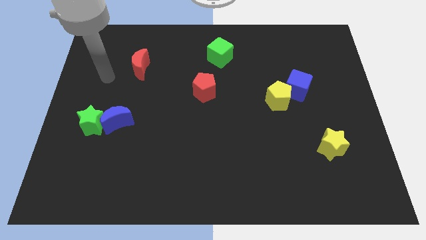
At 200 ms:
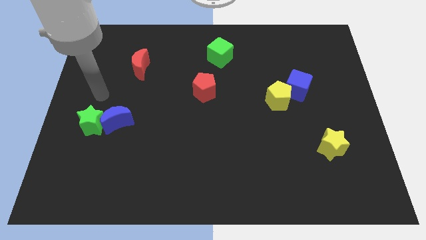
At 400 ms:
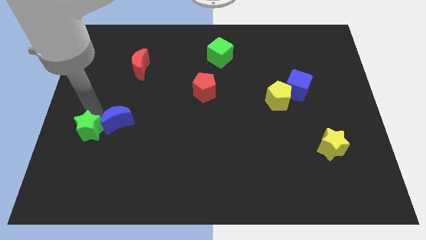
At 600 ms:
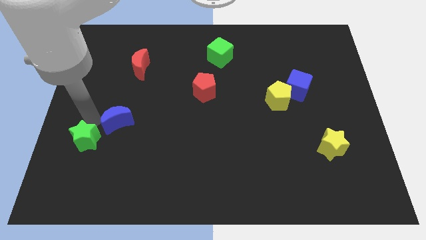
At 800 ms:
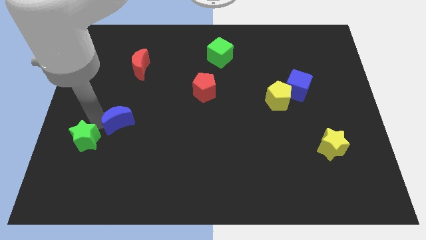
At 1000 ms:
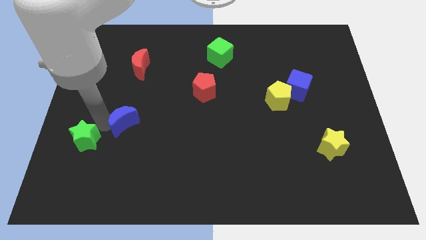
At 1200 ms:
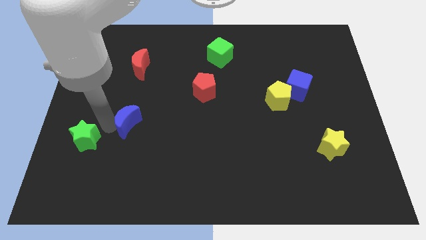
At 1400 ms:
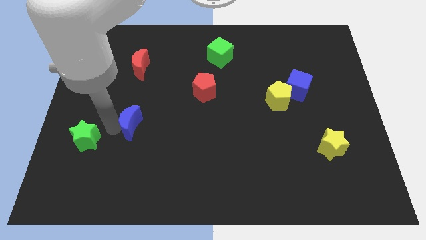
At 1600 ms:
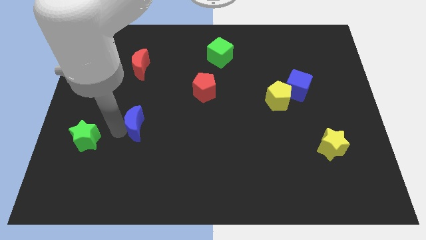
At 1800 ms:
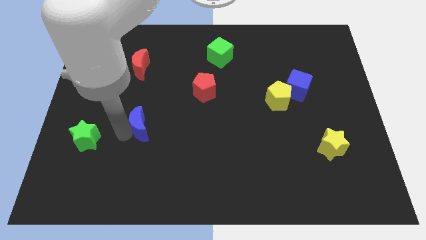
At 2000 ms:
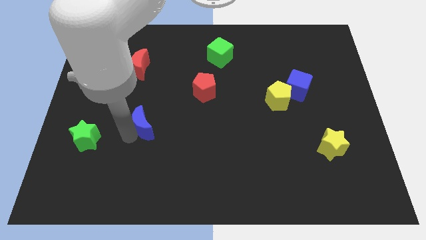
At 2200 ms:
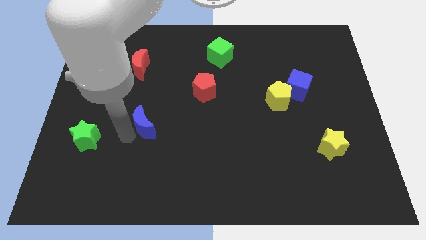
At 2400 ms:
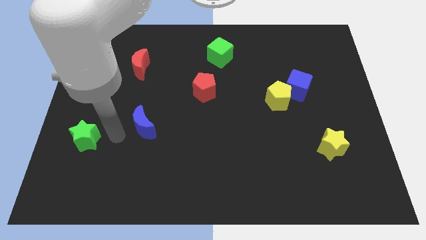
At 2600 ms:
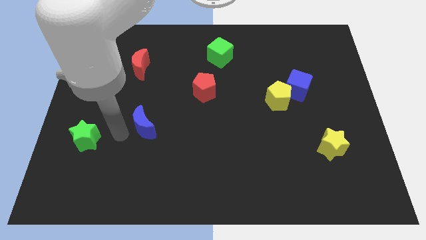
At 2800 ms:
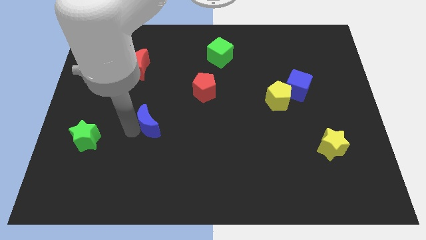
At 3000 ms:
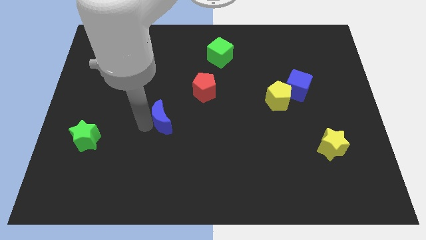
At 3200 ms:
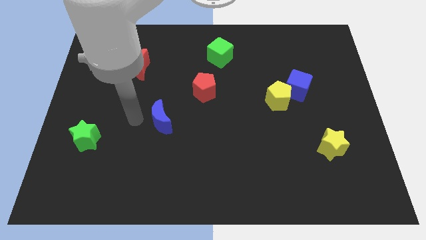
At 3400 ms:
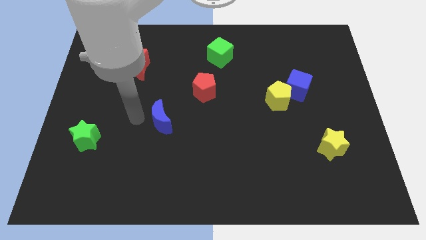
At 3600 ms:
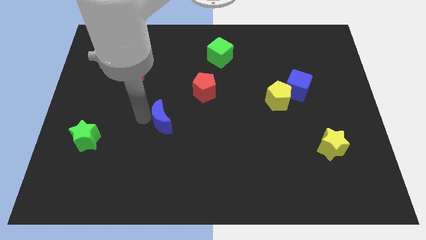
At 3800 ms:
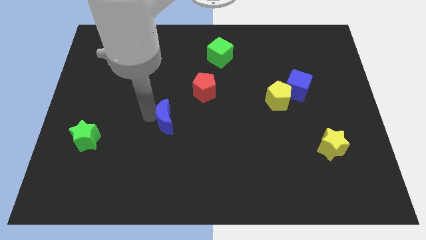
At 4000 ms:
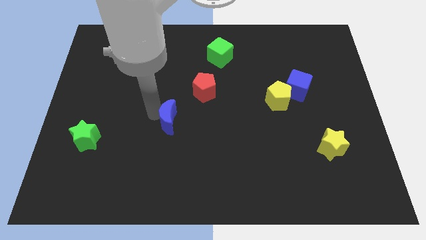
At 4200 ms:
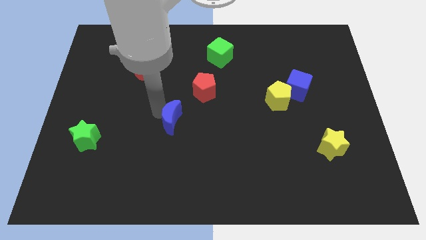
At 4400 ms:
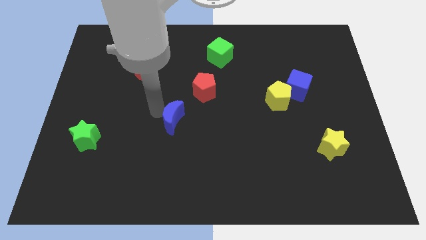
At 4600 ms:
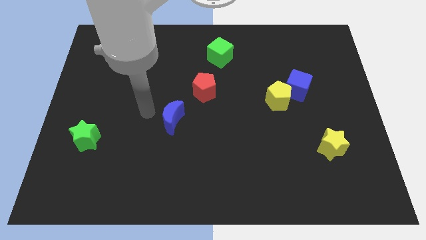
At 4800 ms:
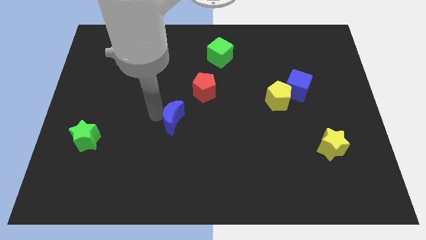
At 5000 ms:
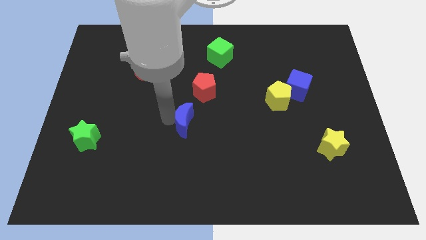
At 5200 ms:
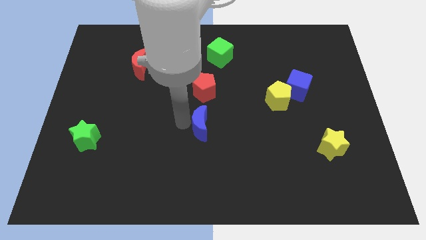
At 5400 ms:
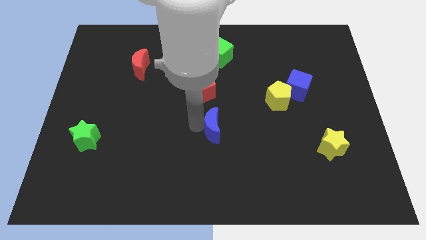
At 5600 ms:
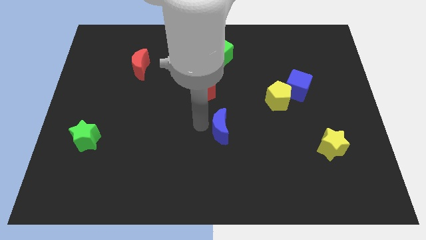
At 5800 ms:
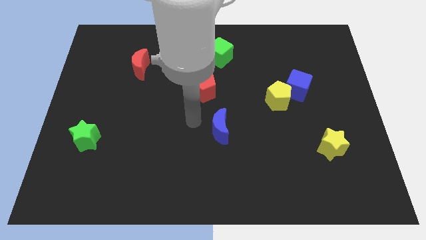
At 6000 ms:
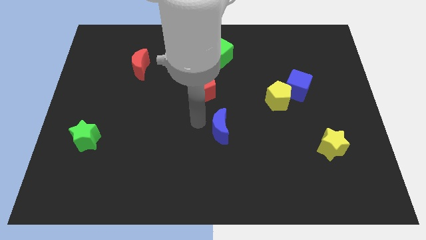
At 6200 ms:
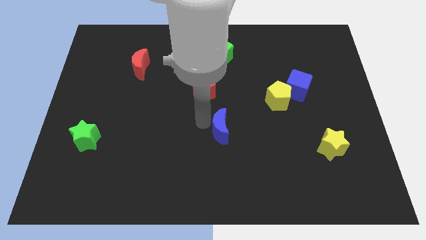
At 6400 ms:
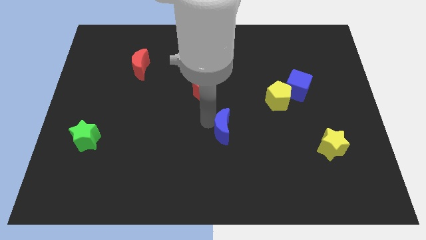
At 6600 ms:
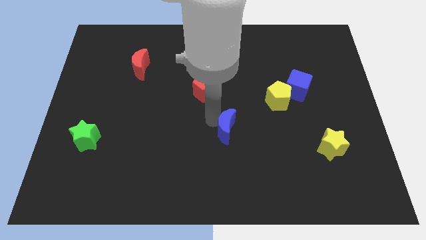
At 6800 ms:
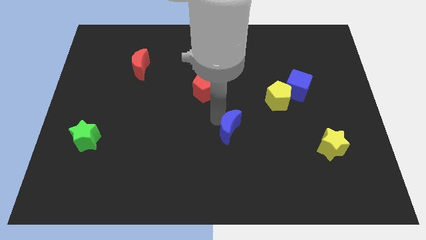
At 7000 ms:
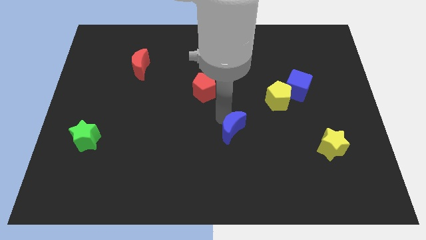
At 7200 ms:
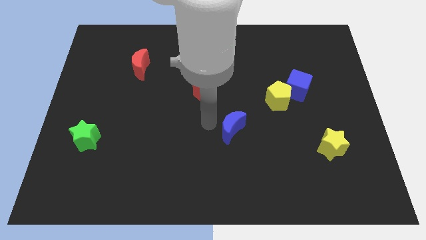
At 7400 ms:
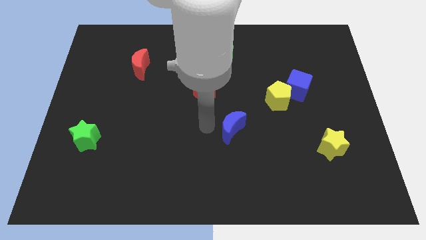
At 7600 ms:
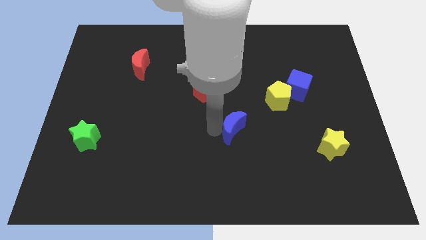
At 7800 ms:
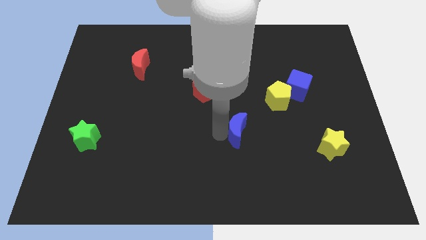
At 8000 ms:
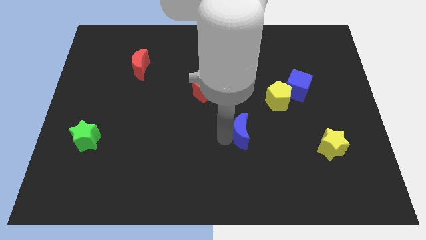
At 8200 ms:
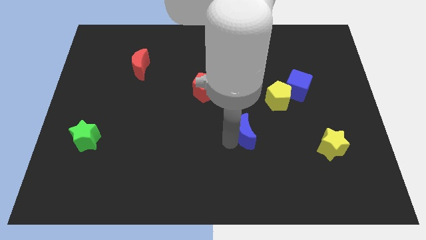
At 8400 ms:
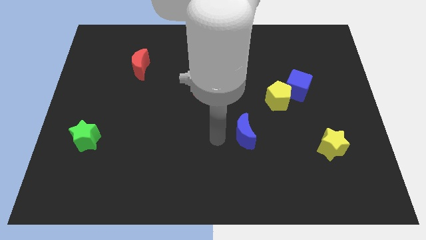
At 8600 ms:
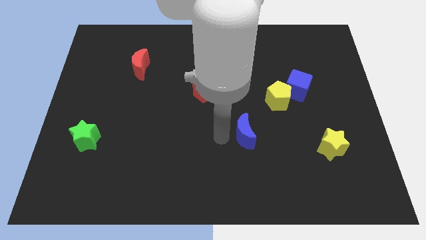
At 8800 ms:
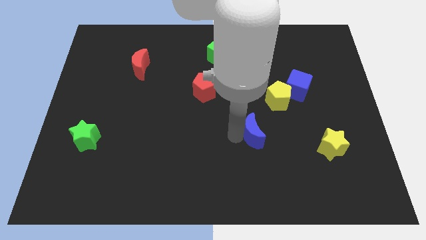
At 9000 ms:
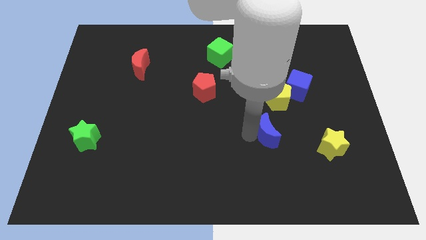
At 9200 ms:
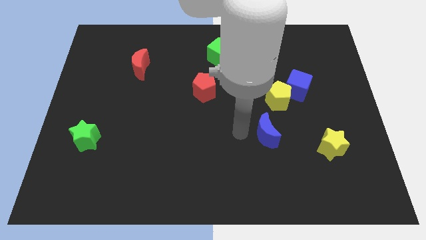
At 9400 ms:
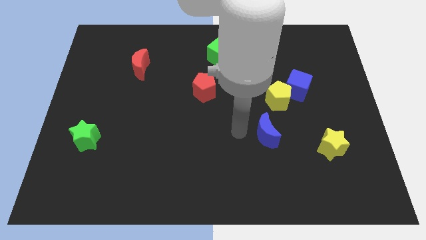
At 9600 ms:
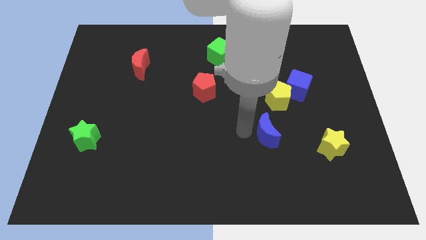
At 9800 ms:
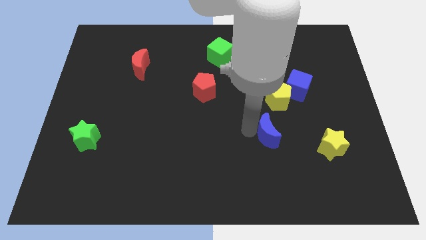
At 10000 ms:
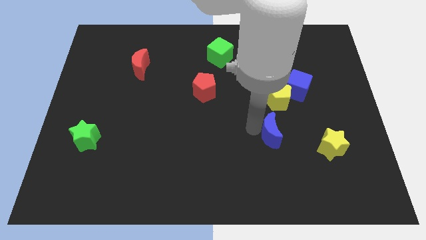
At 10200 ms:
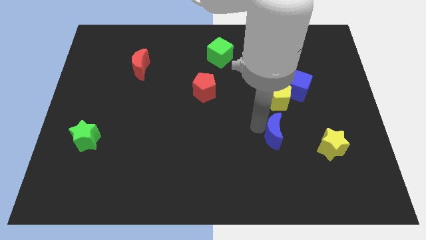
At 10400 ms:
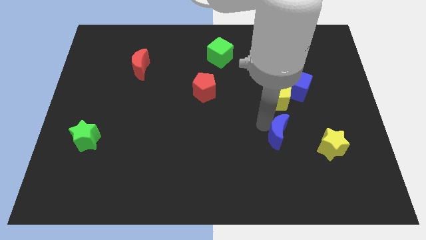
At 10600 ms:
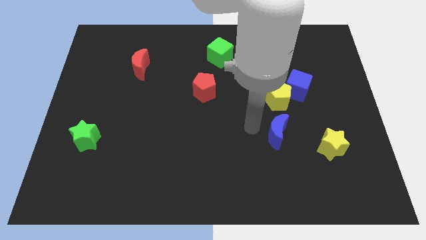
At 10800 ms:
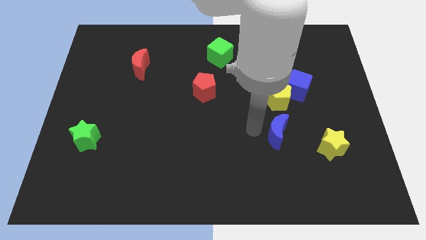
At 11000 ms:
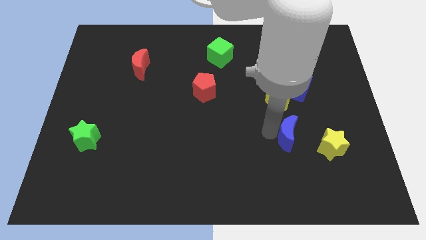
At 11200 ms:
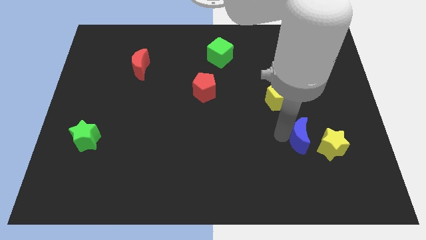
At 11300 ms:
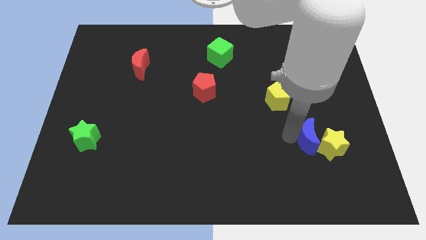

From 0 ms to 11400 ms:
slide the blue moon towards the yellow star

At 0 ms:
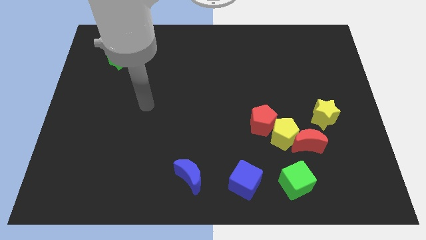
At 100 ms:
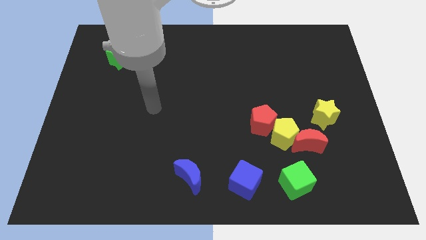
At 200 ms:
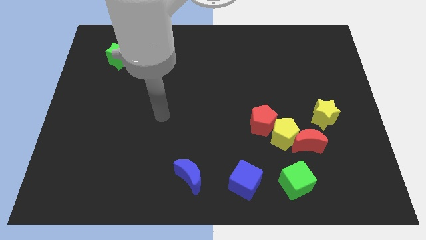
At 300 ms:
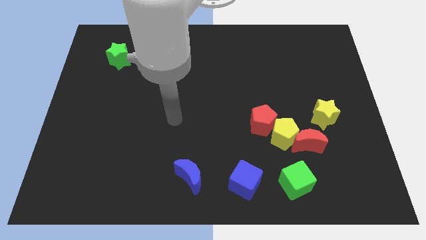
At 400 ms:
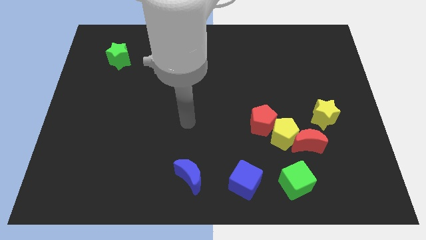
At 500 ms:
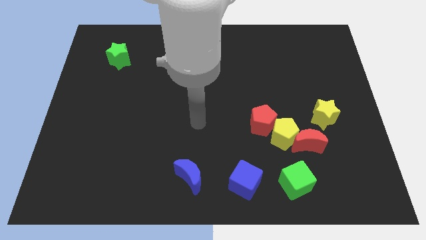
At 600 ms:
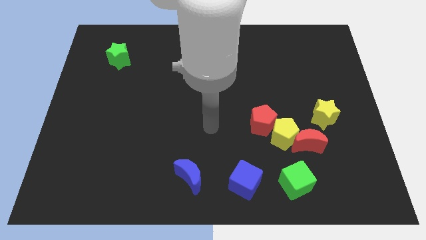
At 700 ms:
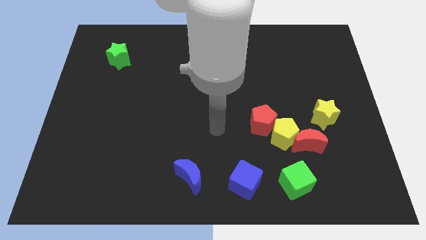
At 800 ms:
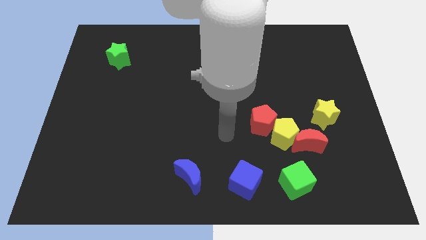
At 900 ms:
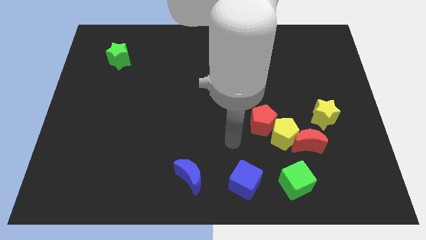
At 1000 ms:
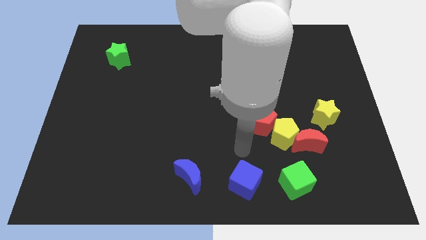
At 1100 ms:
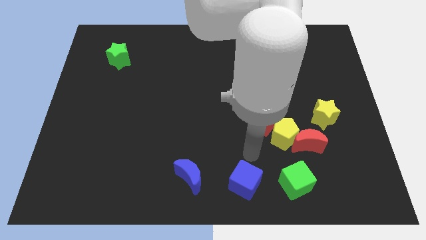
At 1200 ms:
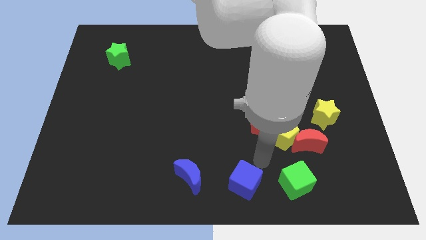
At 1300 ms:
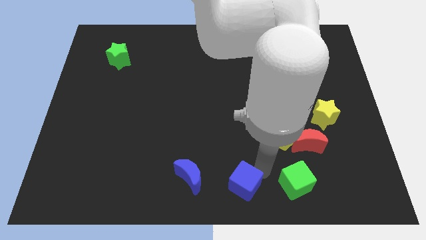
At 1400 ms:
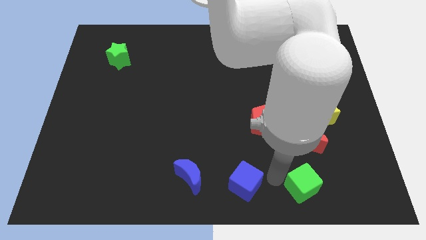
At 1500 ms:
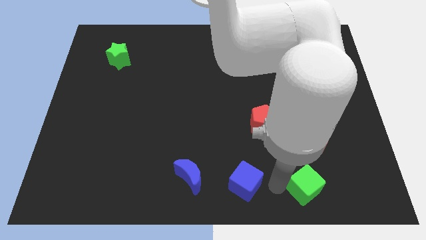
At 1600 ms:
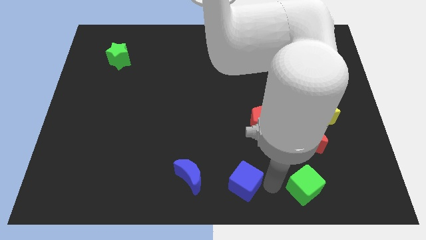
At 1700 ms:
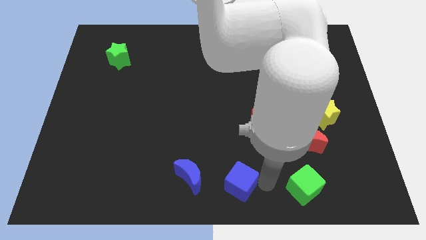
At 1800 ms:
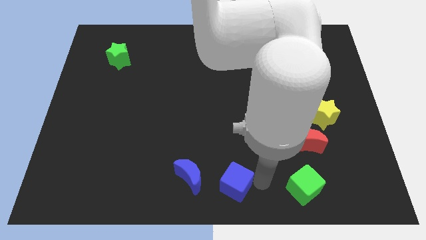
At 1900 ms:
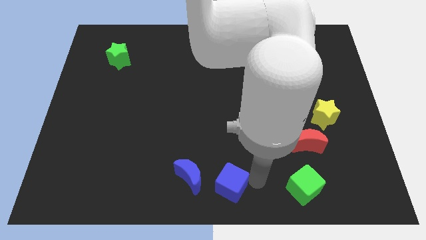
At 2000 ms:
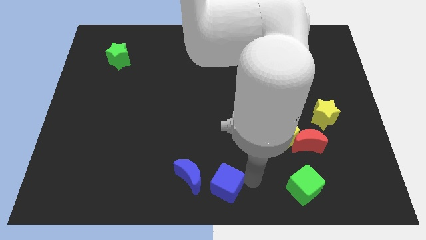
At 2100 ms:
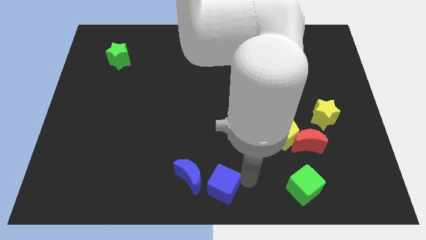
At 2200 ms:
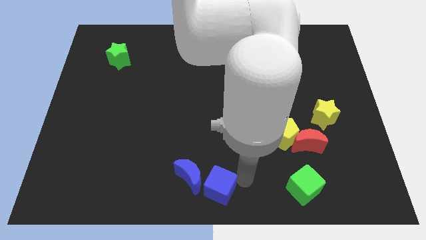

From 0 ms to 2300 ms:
move the blue cube towards the blue moon

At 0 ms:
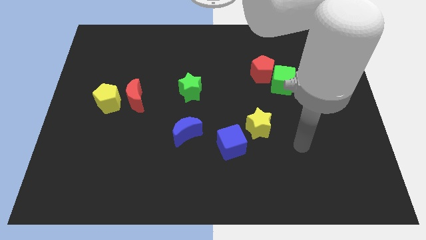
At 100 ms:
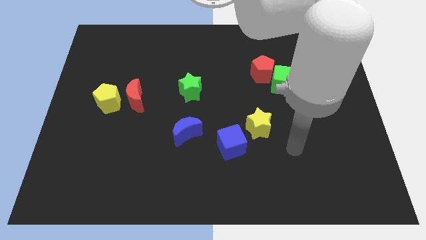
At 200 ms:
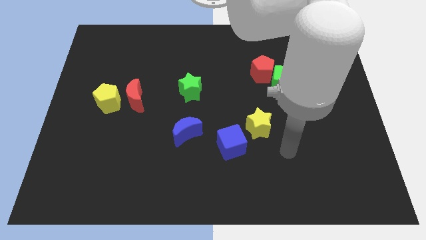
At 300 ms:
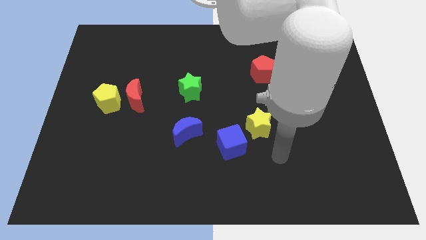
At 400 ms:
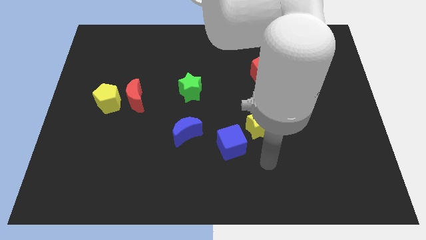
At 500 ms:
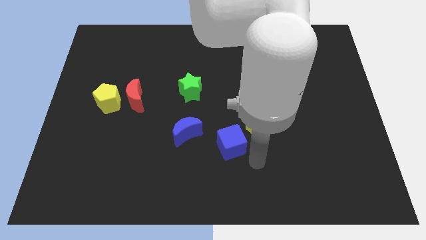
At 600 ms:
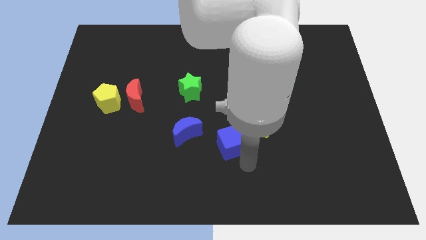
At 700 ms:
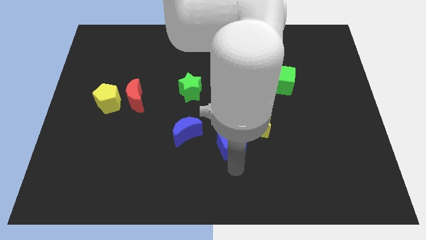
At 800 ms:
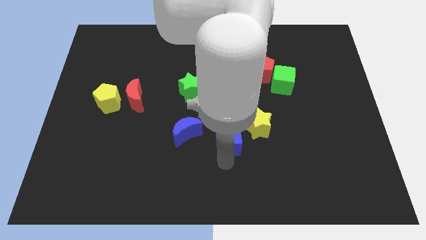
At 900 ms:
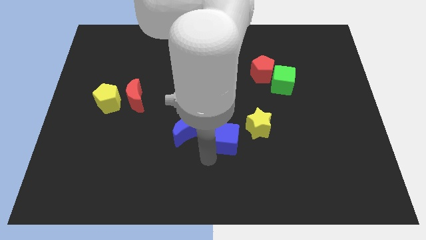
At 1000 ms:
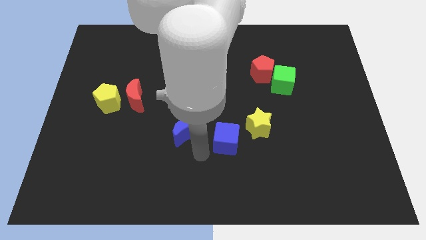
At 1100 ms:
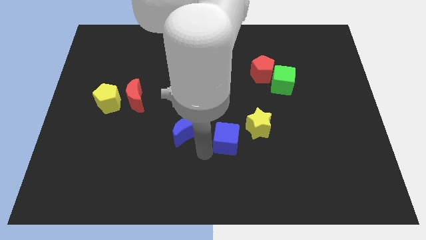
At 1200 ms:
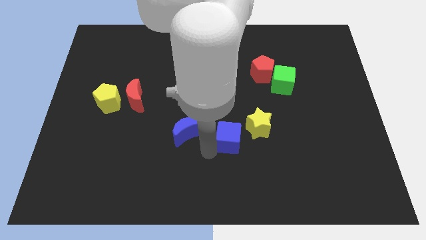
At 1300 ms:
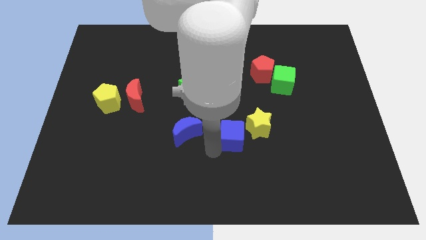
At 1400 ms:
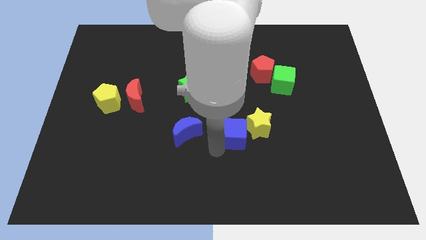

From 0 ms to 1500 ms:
push the blue cube close to the yellow star
